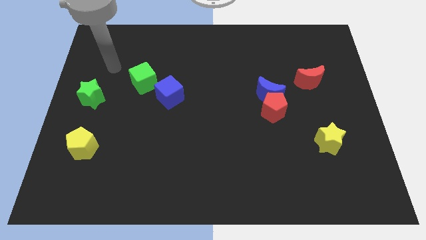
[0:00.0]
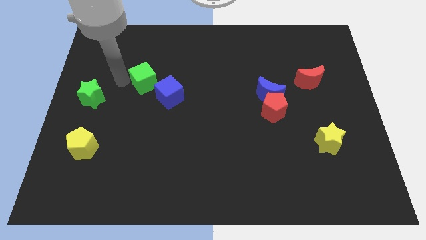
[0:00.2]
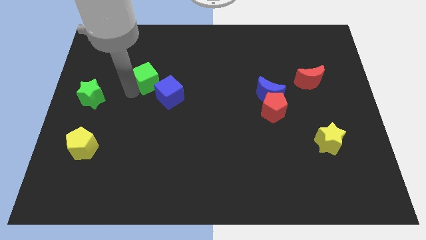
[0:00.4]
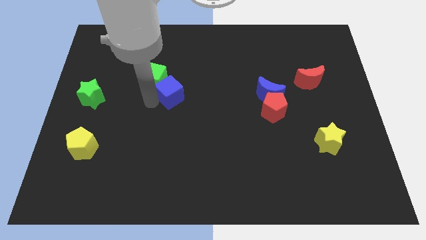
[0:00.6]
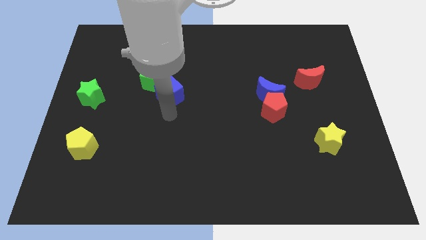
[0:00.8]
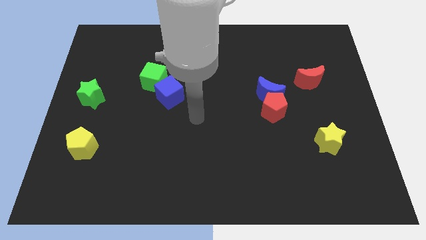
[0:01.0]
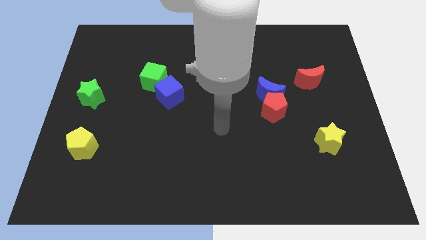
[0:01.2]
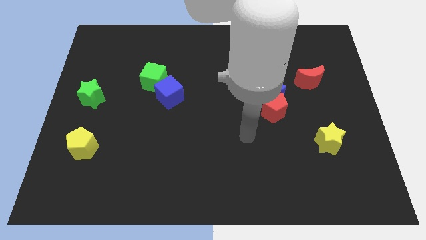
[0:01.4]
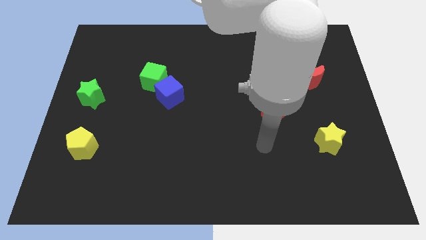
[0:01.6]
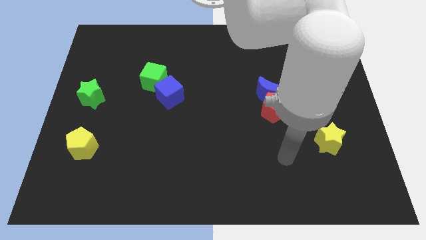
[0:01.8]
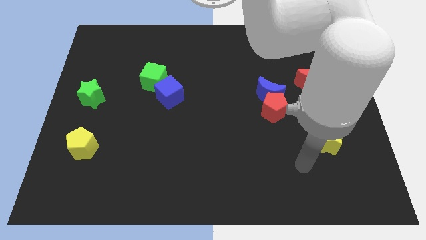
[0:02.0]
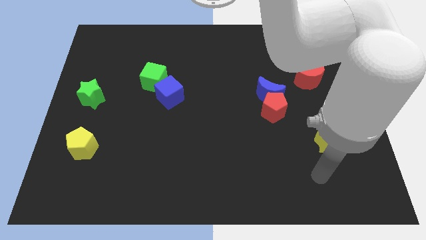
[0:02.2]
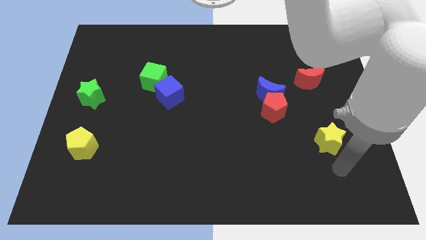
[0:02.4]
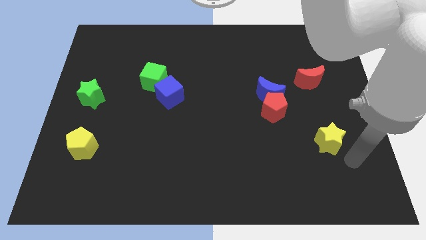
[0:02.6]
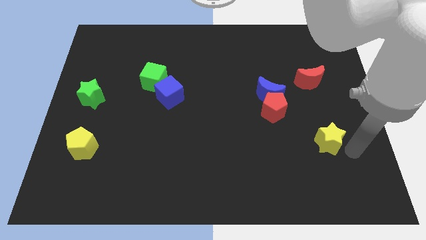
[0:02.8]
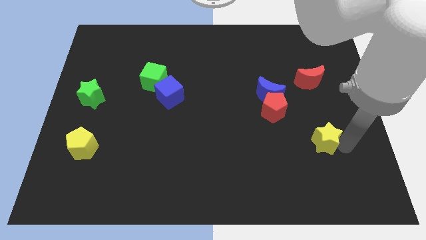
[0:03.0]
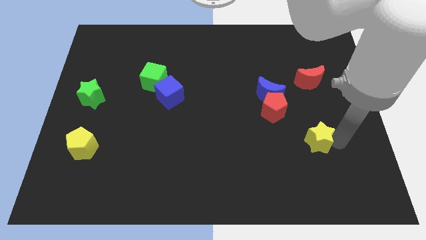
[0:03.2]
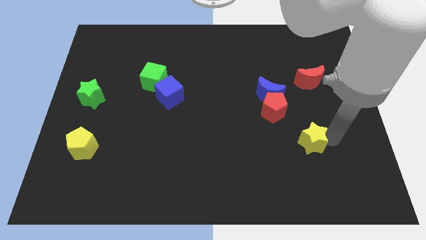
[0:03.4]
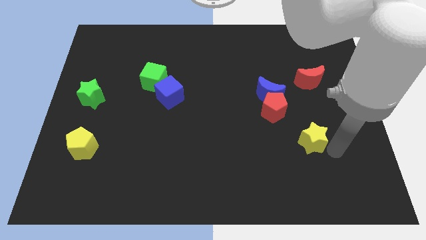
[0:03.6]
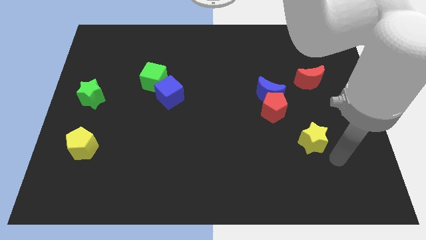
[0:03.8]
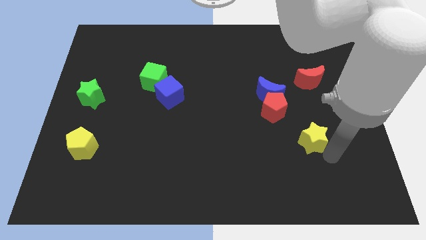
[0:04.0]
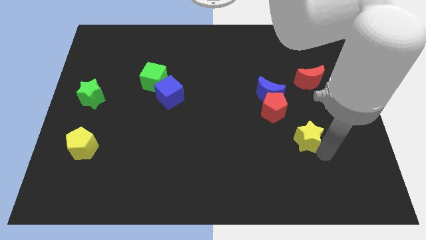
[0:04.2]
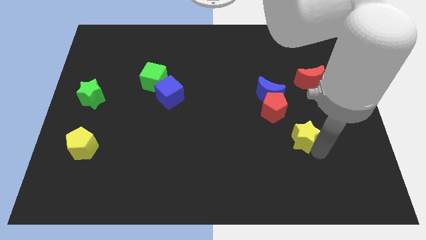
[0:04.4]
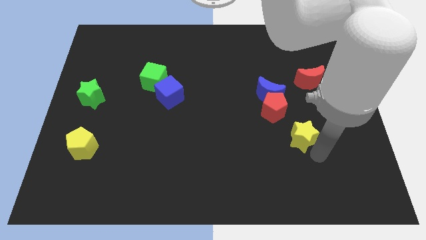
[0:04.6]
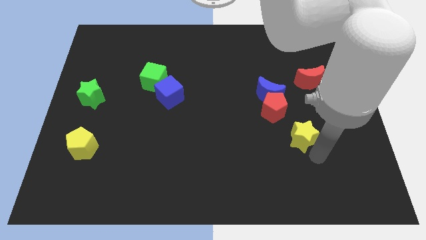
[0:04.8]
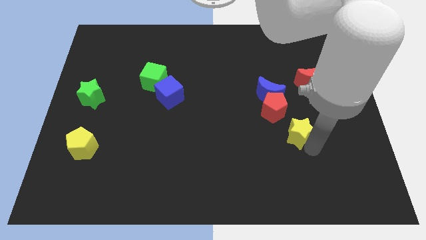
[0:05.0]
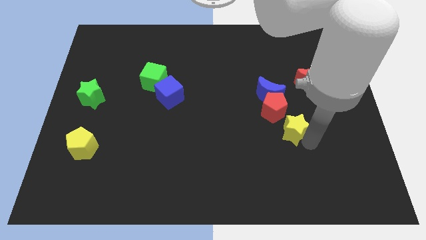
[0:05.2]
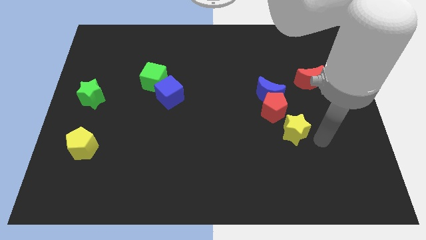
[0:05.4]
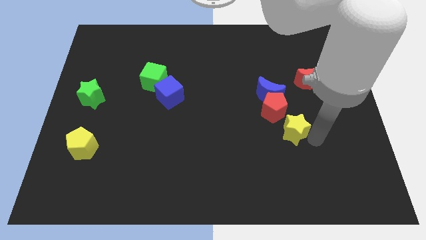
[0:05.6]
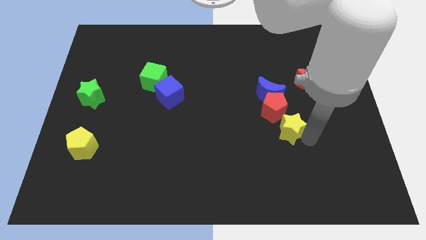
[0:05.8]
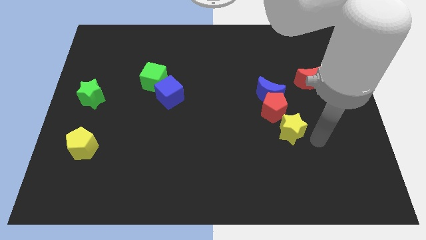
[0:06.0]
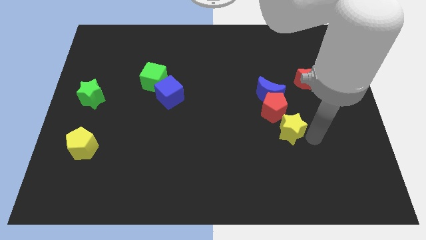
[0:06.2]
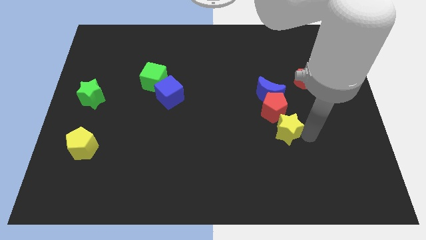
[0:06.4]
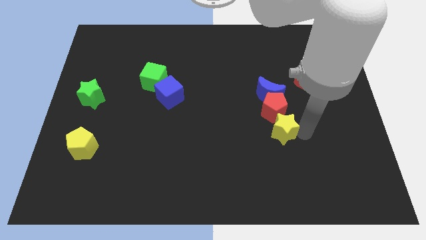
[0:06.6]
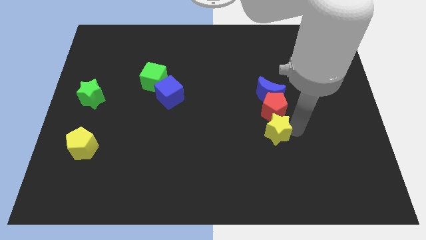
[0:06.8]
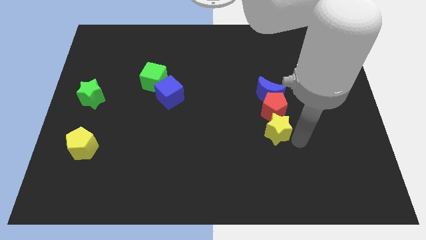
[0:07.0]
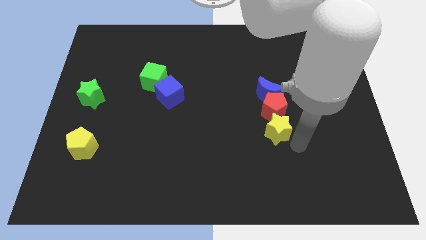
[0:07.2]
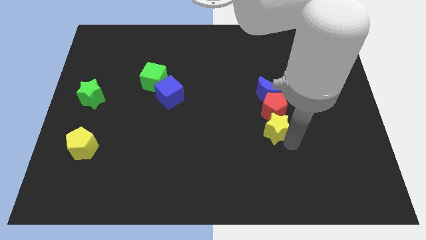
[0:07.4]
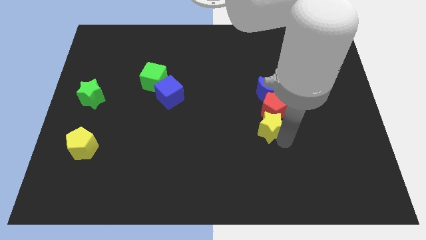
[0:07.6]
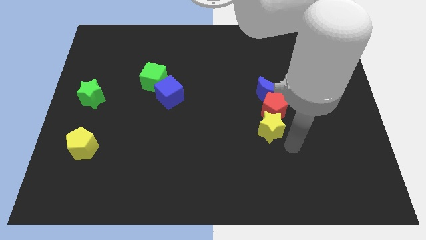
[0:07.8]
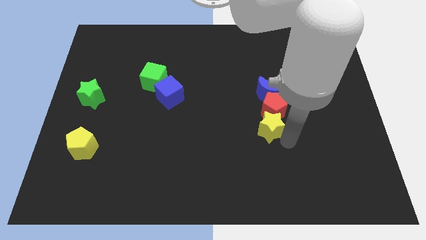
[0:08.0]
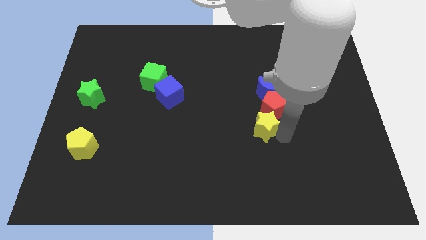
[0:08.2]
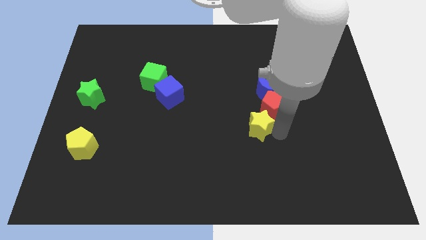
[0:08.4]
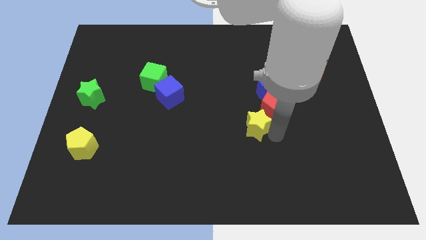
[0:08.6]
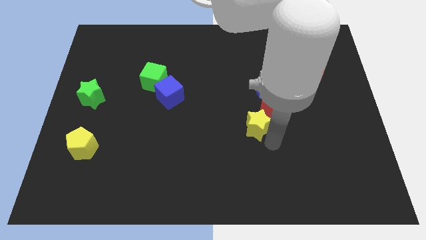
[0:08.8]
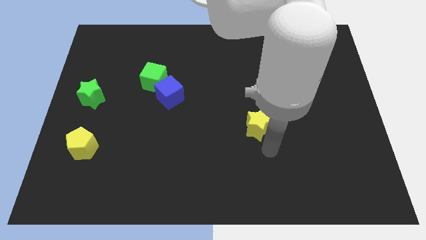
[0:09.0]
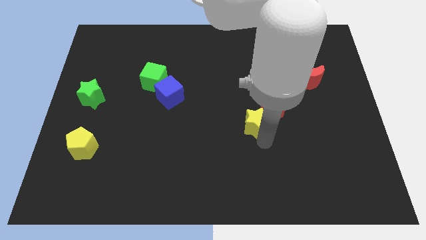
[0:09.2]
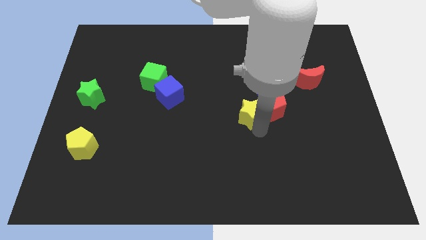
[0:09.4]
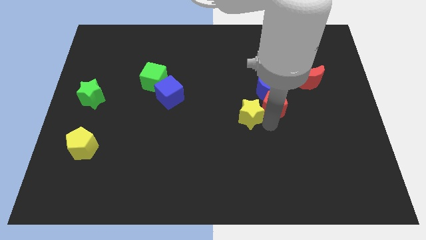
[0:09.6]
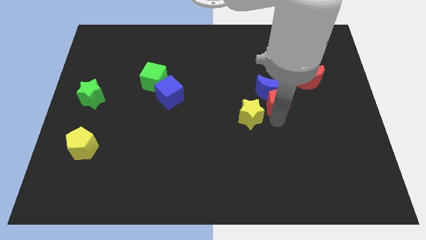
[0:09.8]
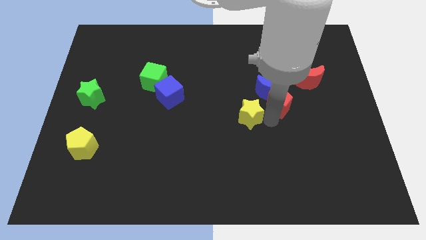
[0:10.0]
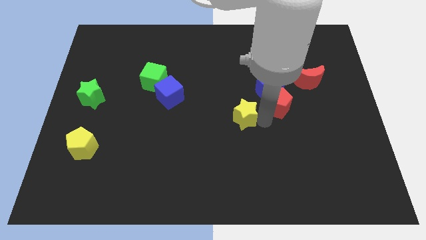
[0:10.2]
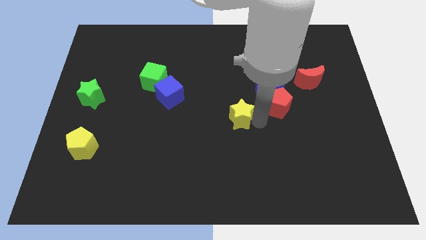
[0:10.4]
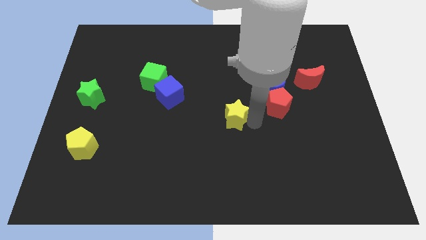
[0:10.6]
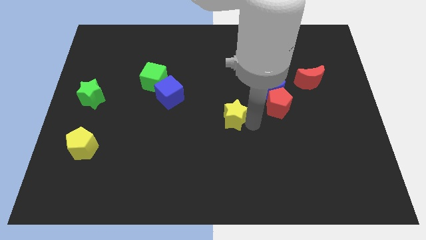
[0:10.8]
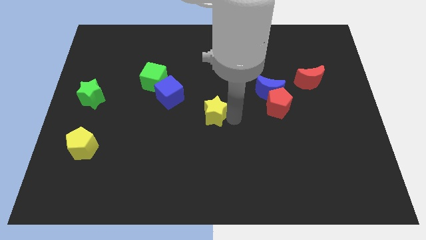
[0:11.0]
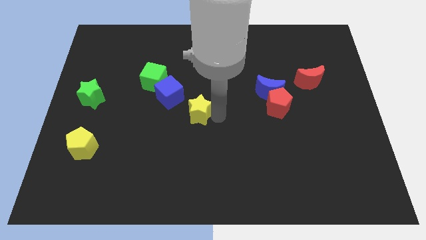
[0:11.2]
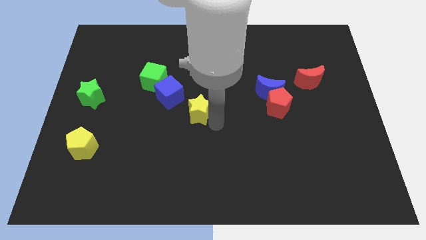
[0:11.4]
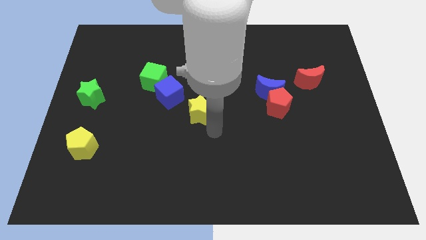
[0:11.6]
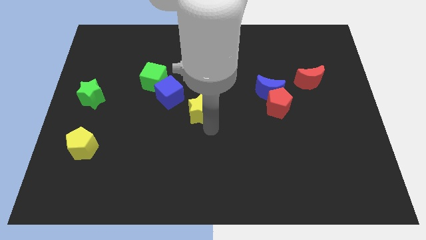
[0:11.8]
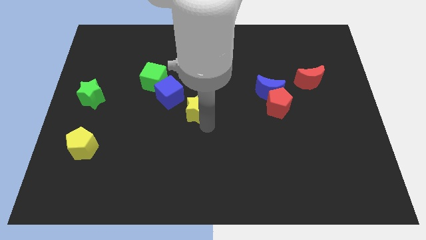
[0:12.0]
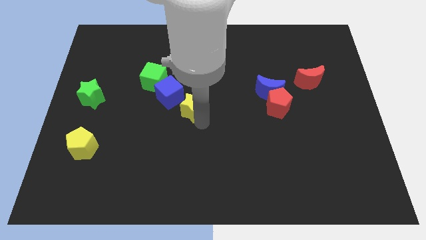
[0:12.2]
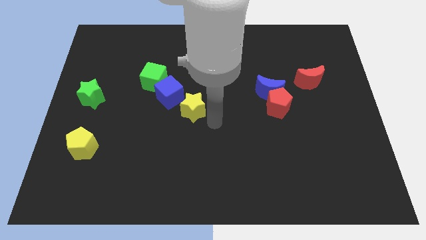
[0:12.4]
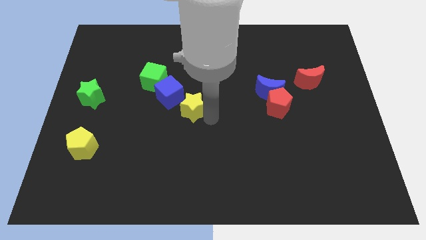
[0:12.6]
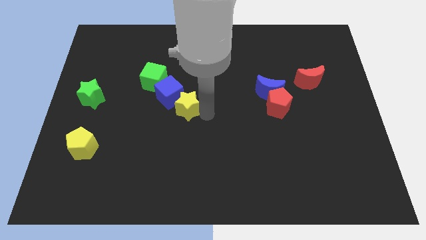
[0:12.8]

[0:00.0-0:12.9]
push the yellow star towards the blue cube

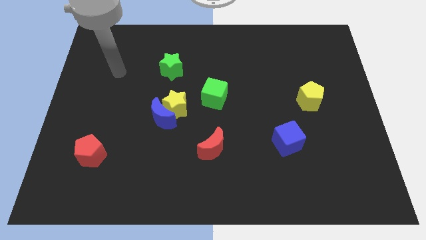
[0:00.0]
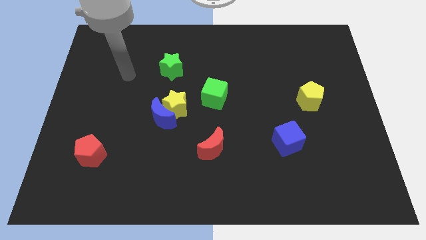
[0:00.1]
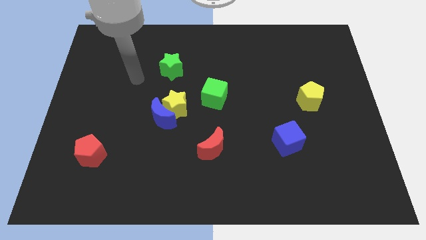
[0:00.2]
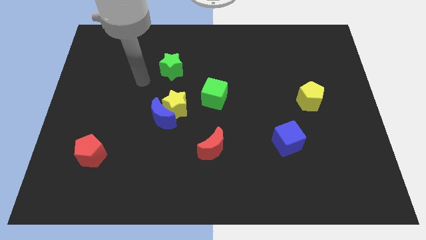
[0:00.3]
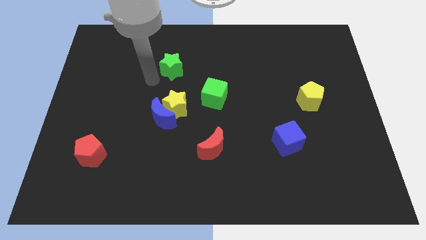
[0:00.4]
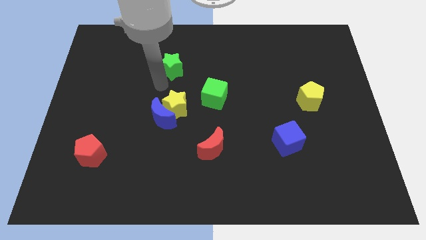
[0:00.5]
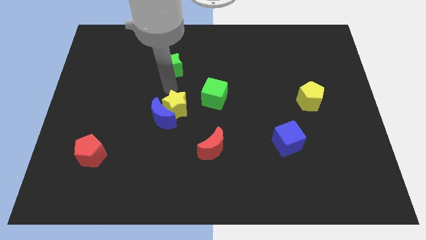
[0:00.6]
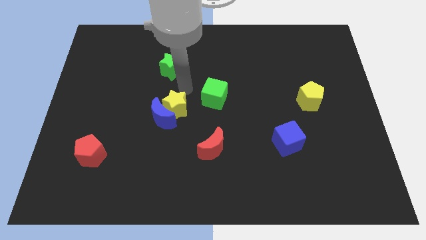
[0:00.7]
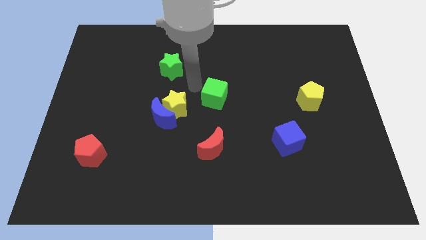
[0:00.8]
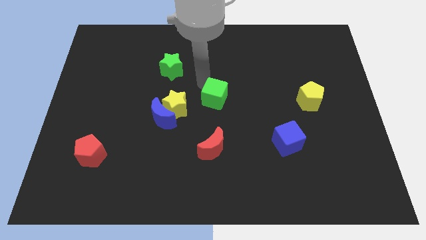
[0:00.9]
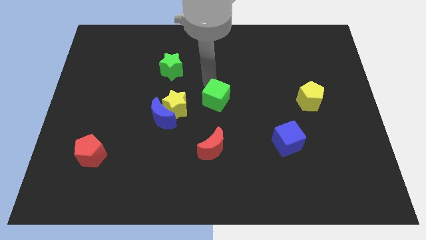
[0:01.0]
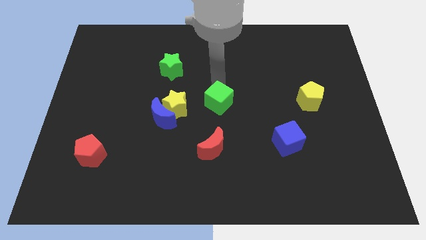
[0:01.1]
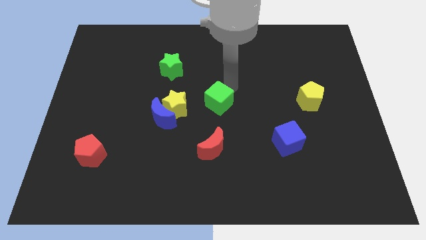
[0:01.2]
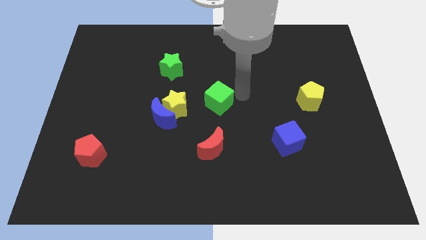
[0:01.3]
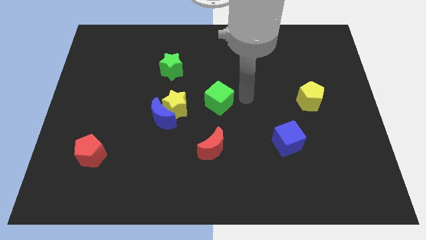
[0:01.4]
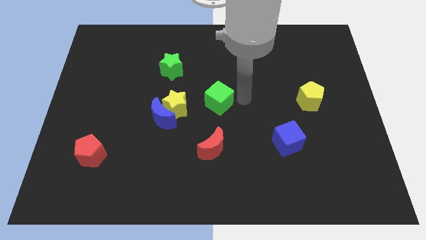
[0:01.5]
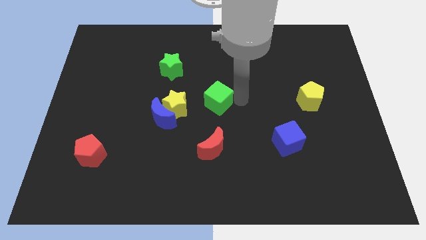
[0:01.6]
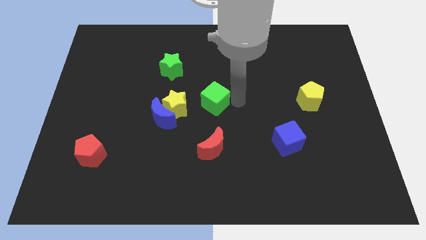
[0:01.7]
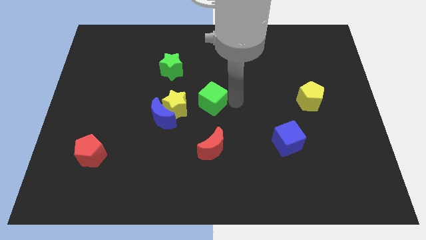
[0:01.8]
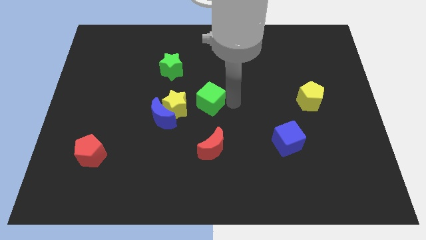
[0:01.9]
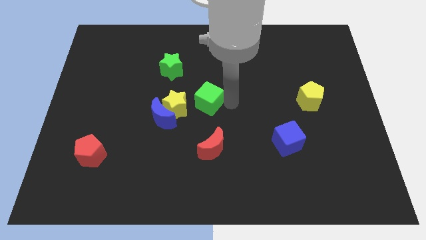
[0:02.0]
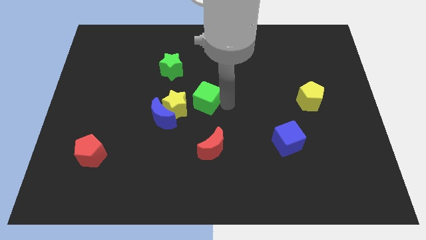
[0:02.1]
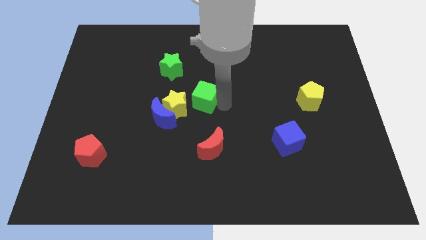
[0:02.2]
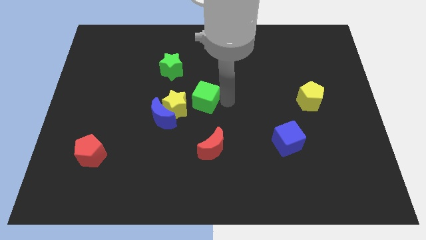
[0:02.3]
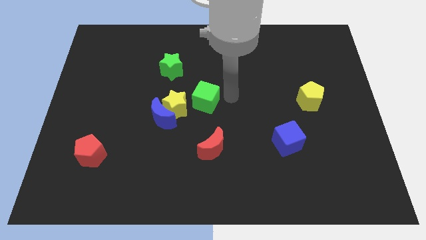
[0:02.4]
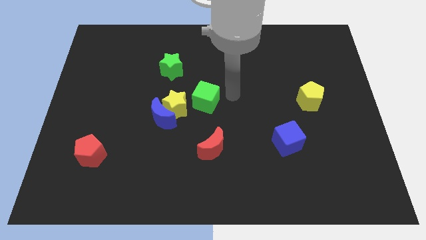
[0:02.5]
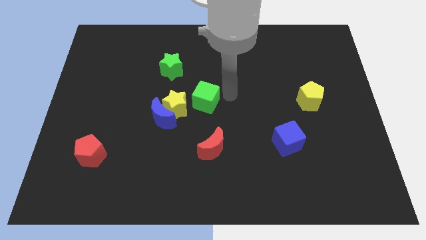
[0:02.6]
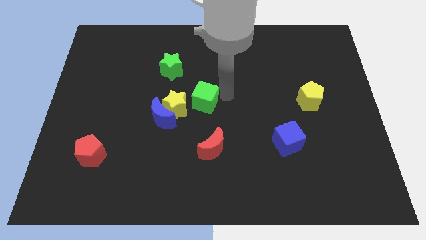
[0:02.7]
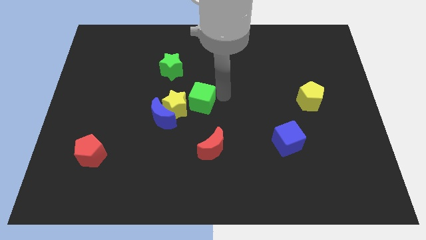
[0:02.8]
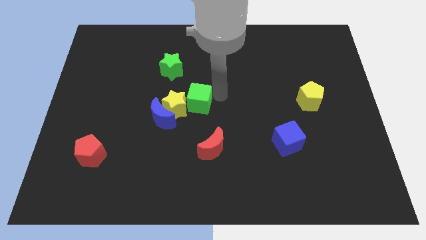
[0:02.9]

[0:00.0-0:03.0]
move the green cube towards the yellow star
